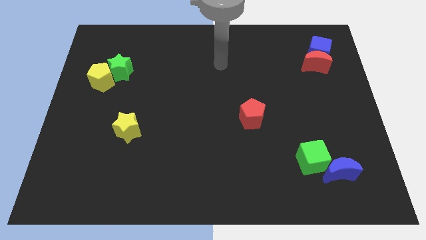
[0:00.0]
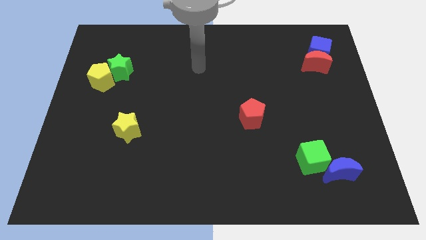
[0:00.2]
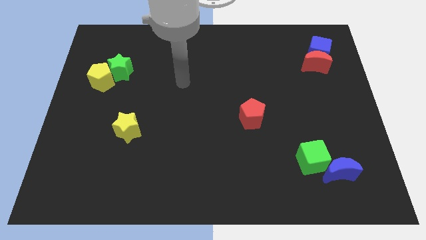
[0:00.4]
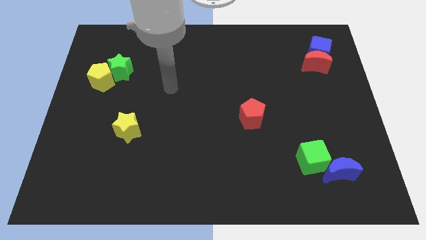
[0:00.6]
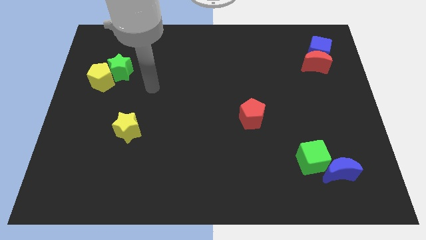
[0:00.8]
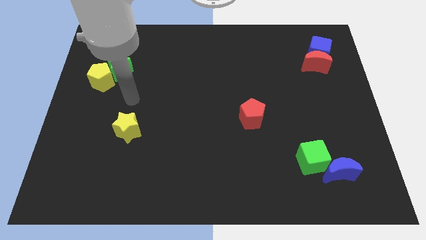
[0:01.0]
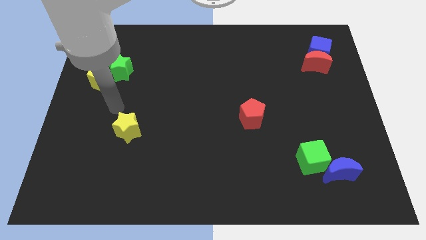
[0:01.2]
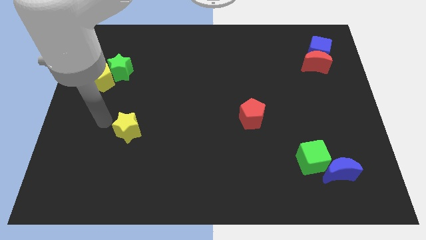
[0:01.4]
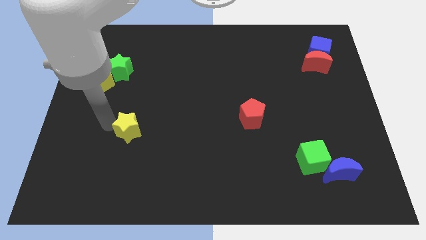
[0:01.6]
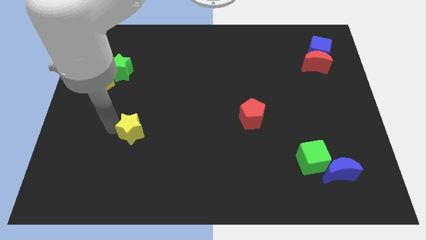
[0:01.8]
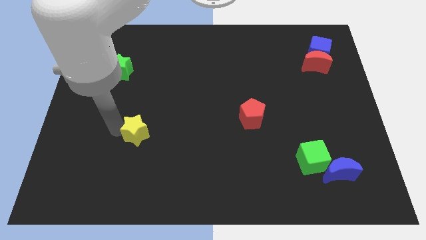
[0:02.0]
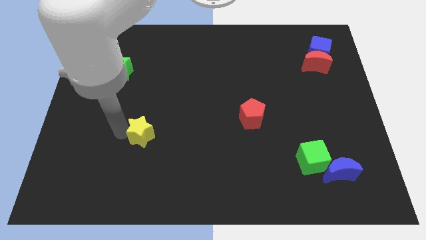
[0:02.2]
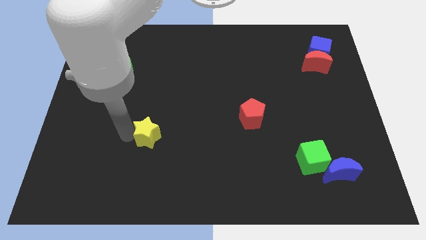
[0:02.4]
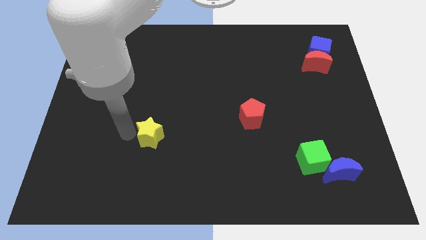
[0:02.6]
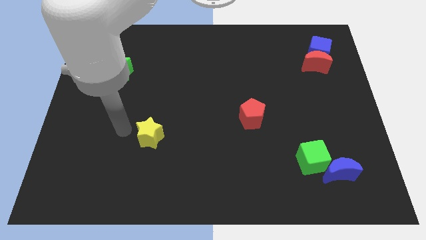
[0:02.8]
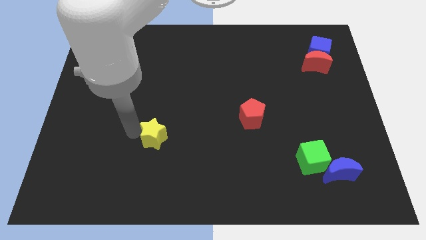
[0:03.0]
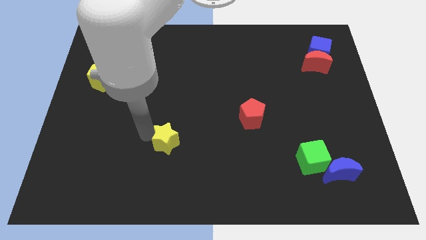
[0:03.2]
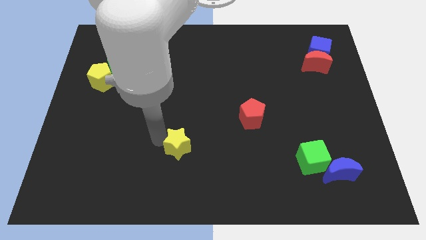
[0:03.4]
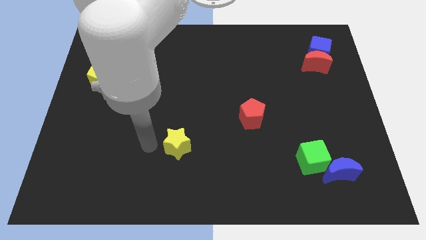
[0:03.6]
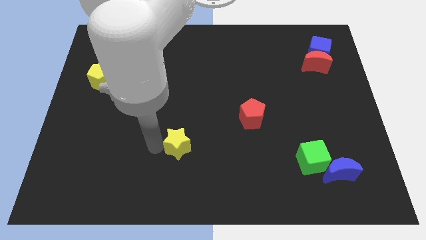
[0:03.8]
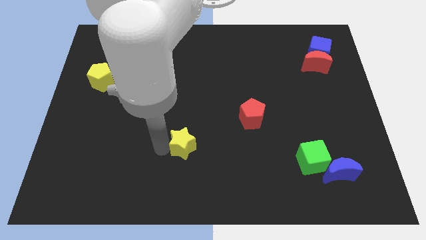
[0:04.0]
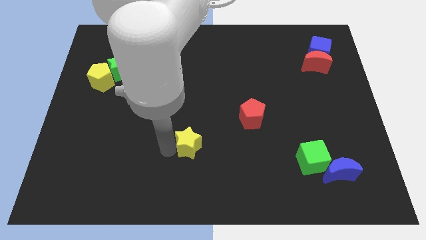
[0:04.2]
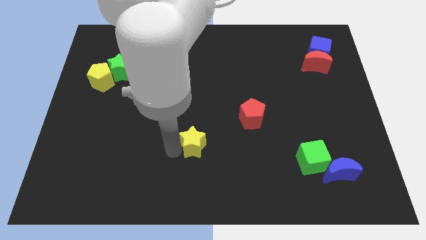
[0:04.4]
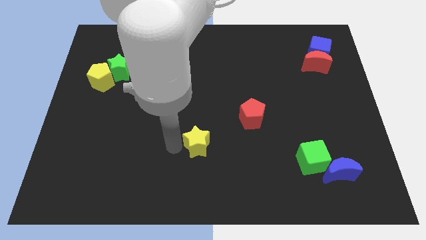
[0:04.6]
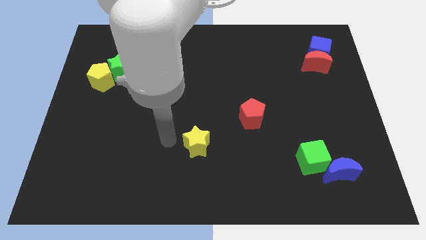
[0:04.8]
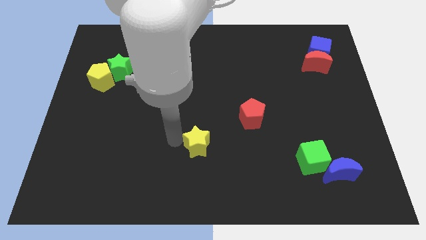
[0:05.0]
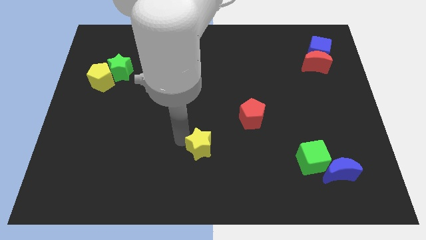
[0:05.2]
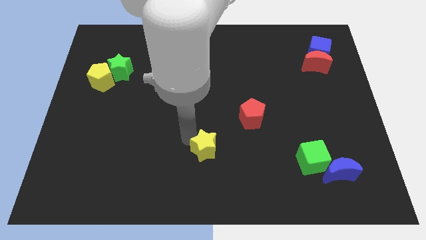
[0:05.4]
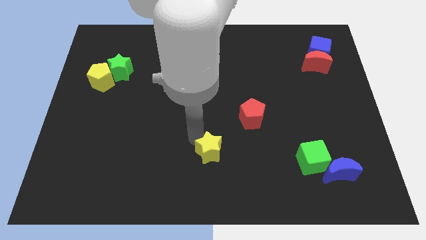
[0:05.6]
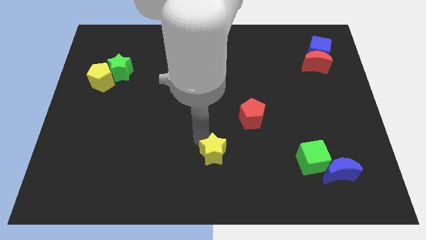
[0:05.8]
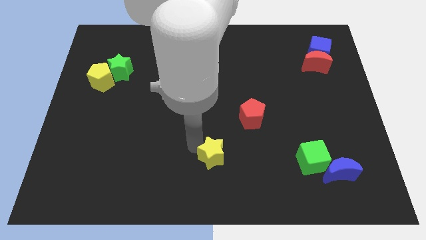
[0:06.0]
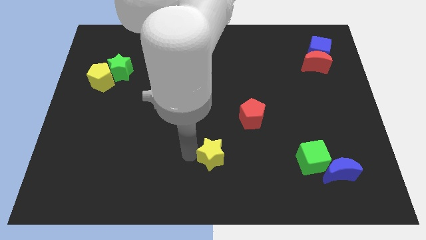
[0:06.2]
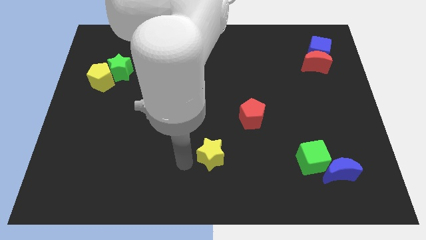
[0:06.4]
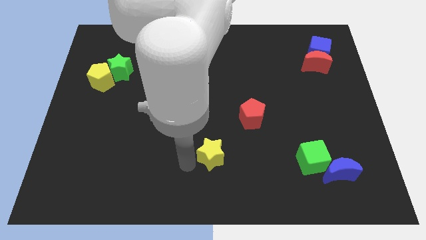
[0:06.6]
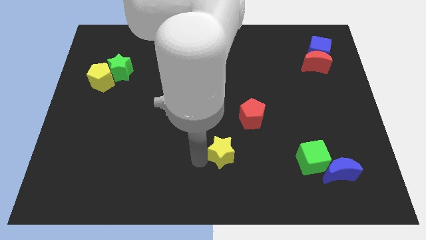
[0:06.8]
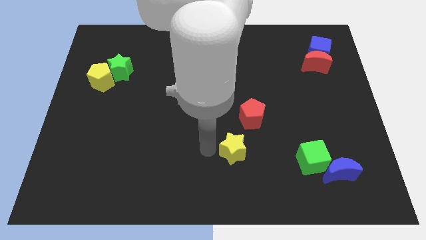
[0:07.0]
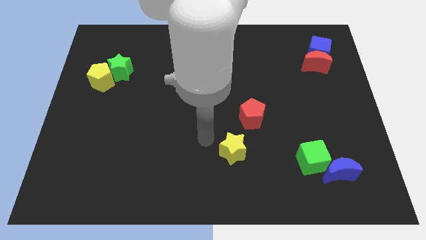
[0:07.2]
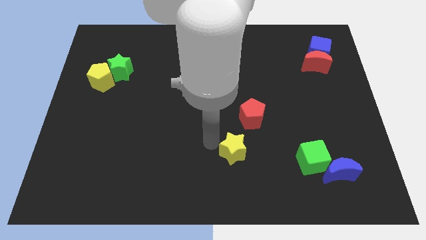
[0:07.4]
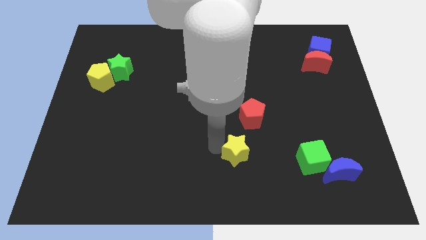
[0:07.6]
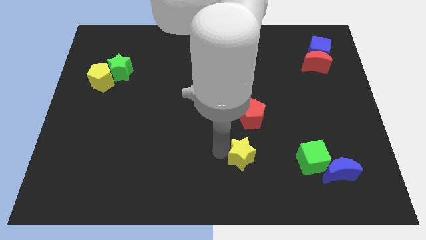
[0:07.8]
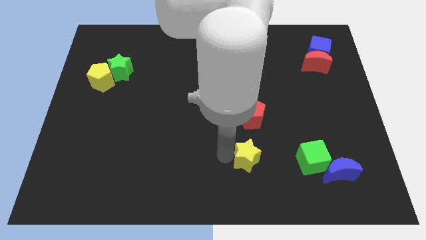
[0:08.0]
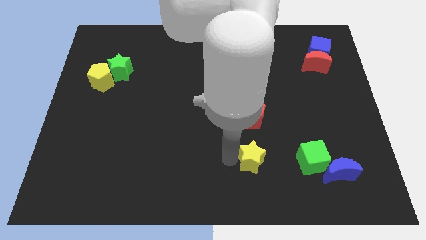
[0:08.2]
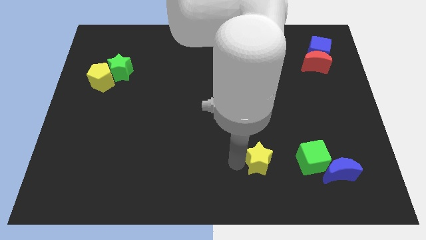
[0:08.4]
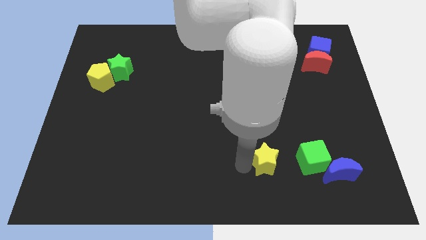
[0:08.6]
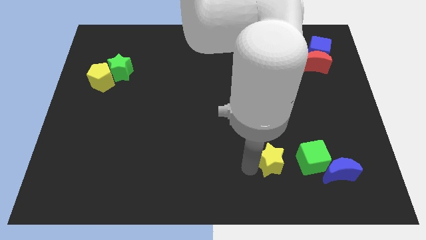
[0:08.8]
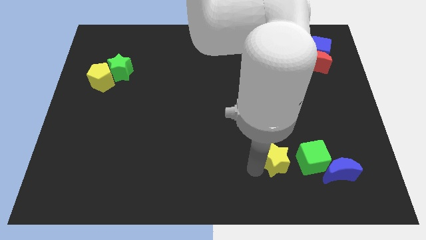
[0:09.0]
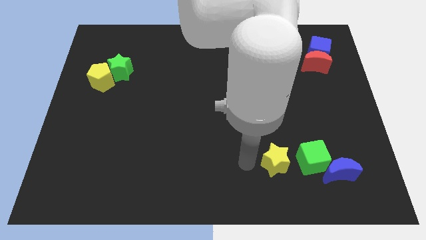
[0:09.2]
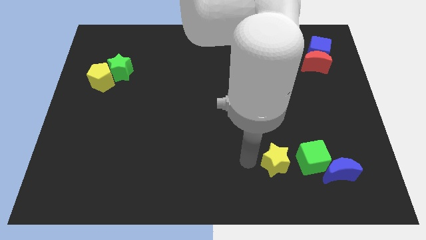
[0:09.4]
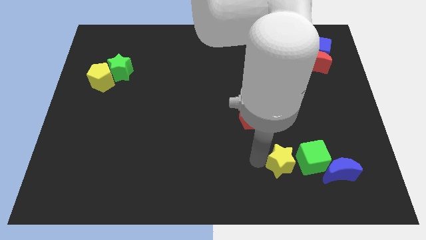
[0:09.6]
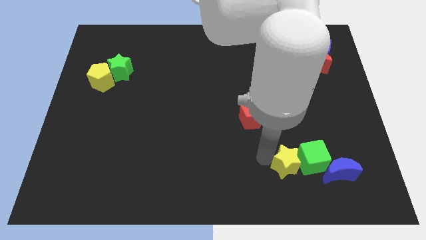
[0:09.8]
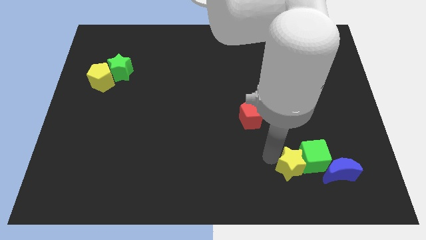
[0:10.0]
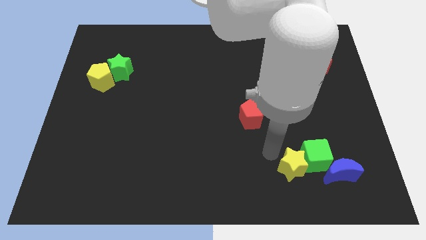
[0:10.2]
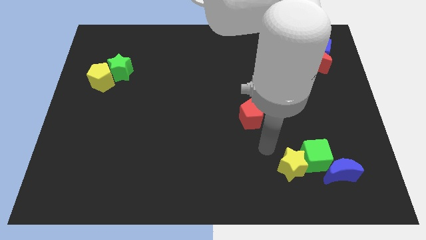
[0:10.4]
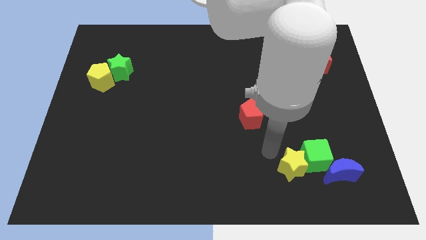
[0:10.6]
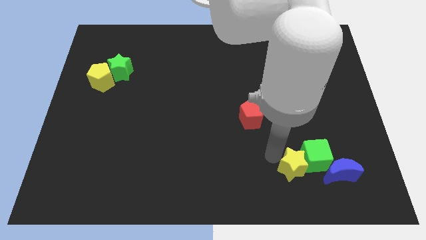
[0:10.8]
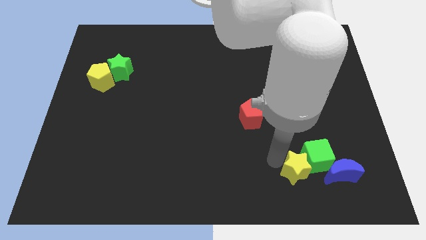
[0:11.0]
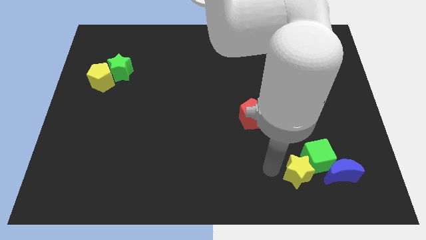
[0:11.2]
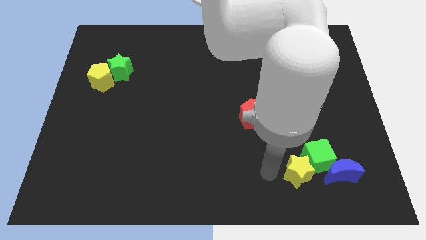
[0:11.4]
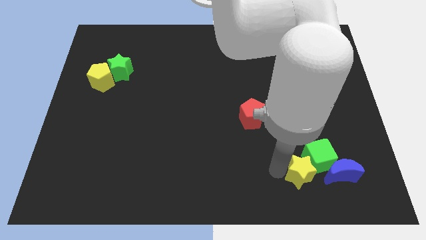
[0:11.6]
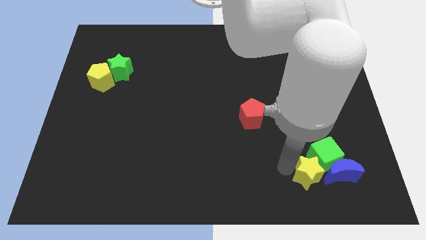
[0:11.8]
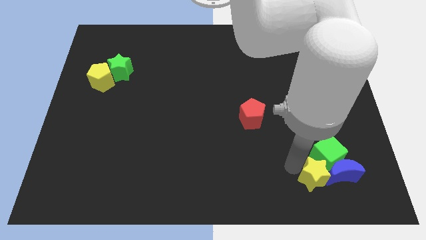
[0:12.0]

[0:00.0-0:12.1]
put the yellow star next to the blue moon

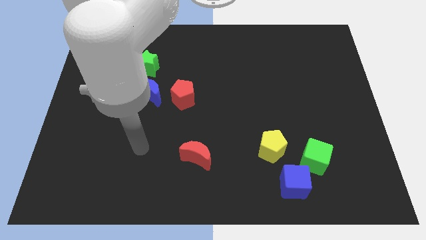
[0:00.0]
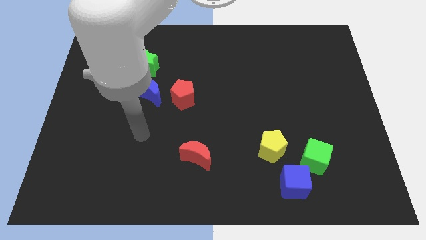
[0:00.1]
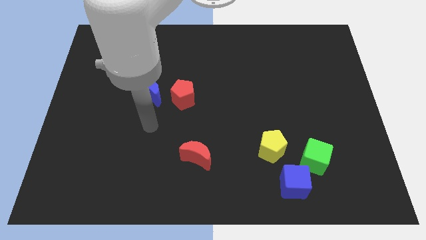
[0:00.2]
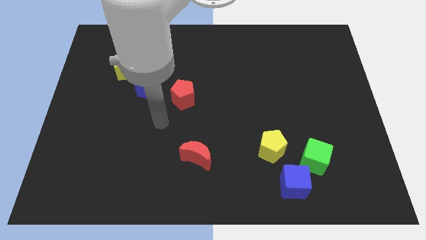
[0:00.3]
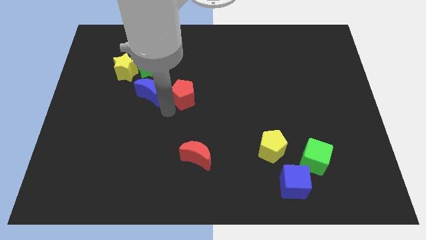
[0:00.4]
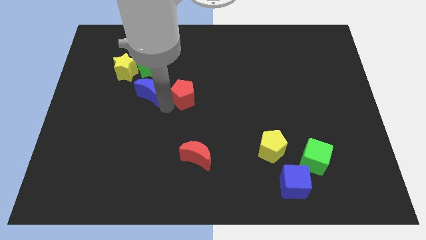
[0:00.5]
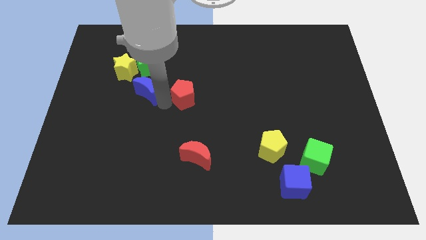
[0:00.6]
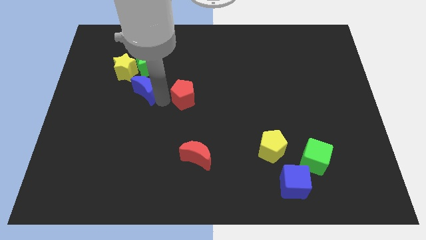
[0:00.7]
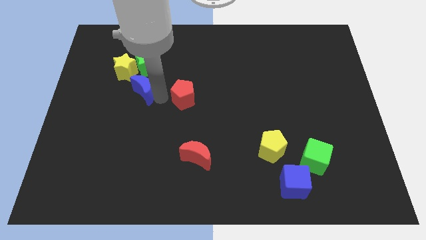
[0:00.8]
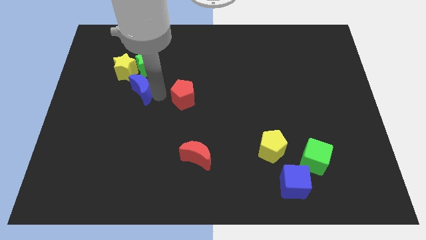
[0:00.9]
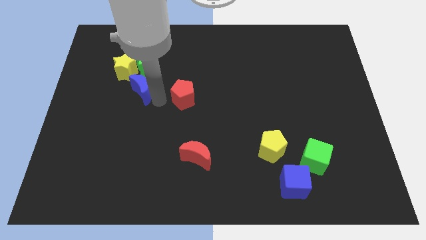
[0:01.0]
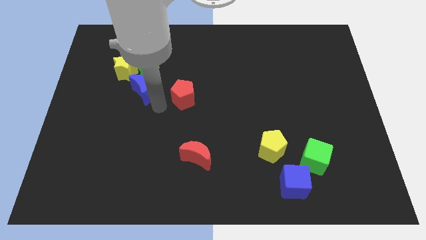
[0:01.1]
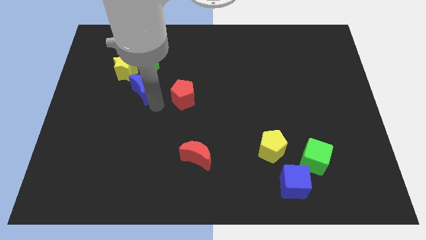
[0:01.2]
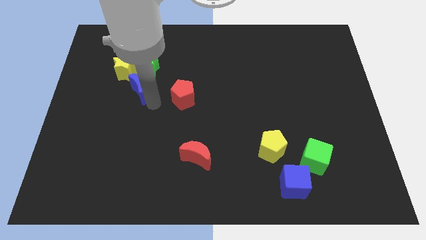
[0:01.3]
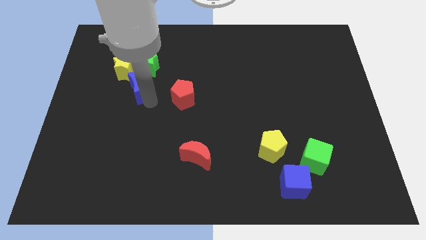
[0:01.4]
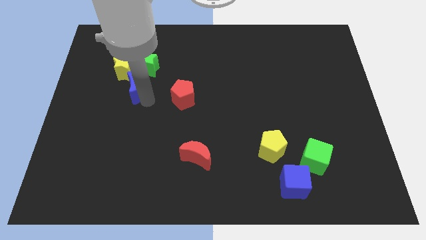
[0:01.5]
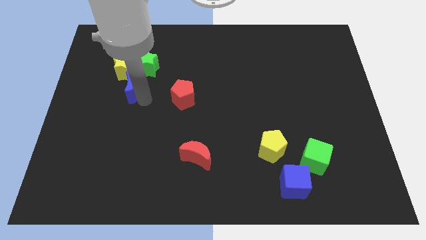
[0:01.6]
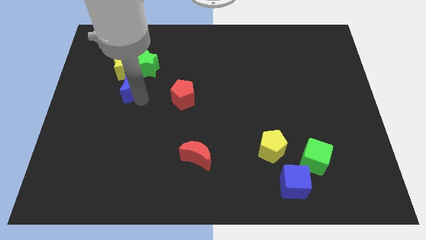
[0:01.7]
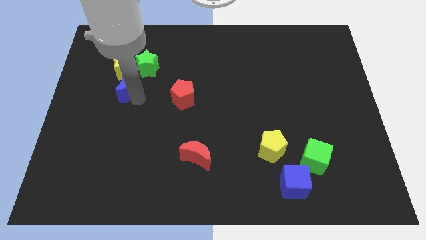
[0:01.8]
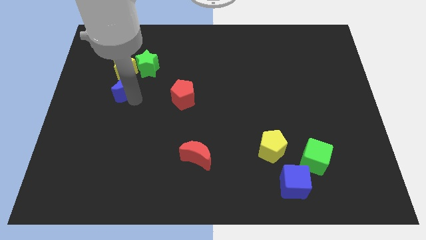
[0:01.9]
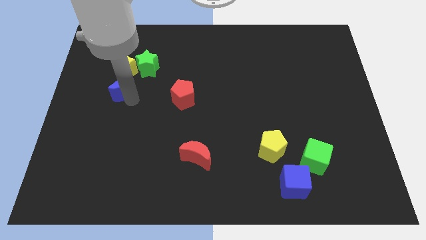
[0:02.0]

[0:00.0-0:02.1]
put the blue moon to the yellow star
